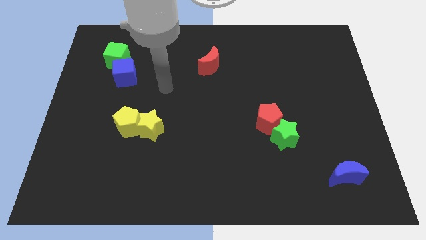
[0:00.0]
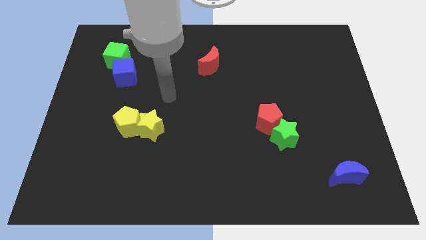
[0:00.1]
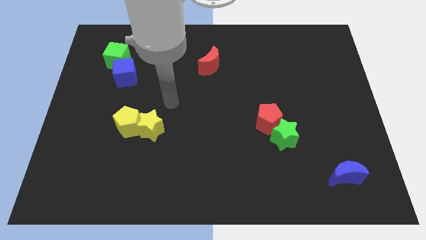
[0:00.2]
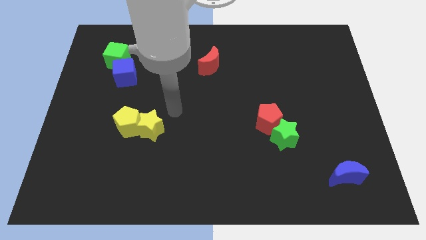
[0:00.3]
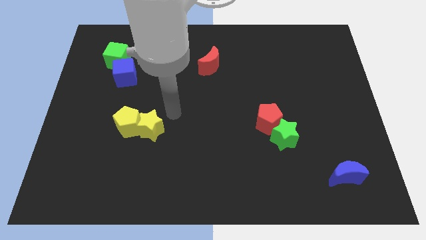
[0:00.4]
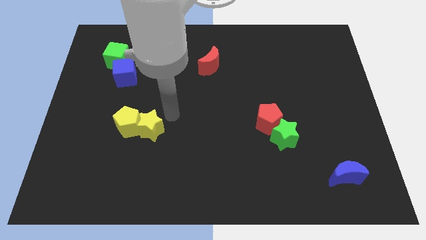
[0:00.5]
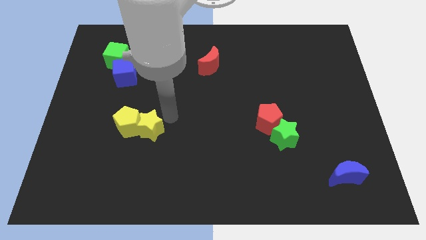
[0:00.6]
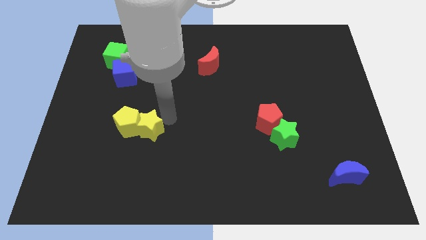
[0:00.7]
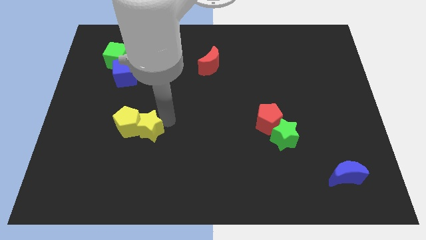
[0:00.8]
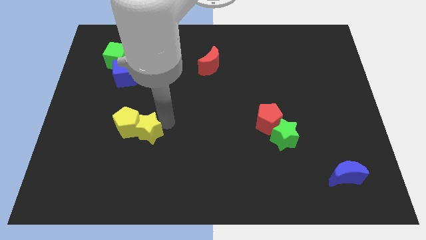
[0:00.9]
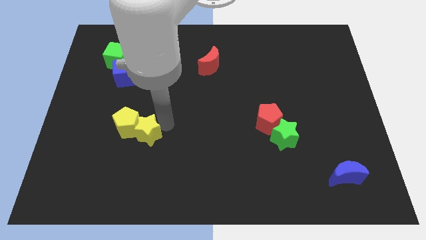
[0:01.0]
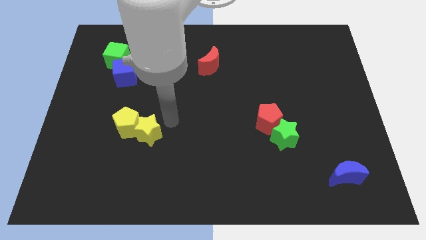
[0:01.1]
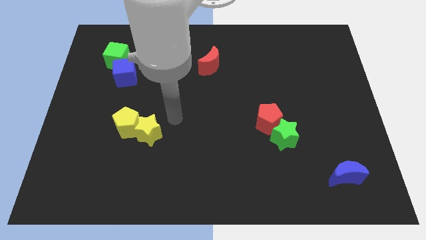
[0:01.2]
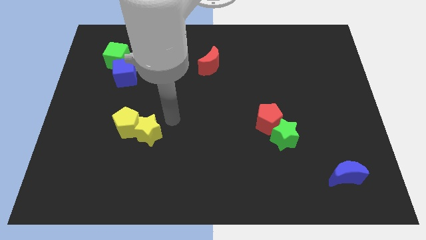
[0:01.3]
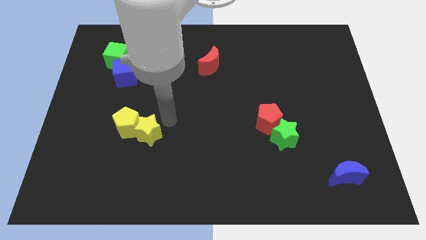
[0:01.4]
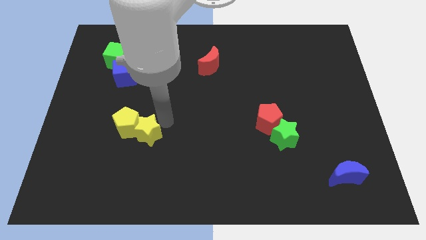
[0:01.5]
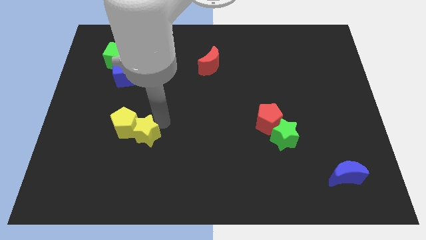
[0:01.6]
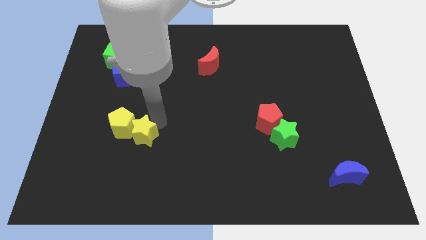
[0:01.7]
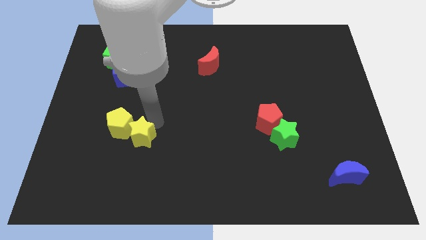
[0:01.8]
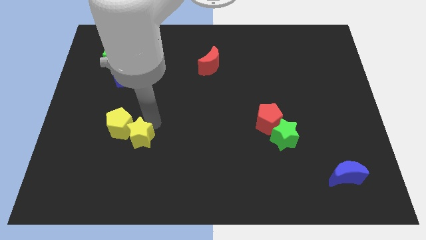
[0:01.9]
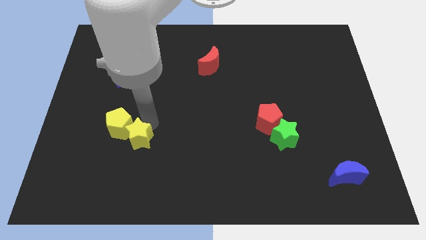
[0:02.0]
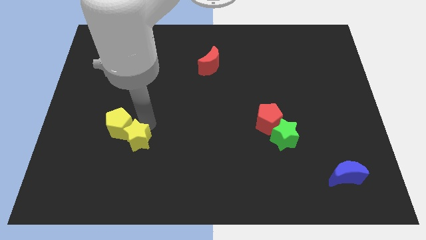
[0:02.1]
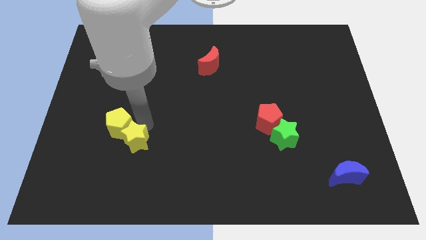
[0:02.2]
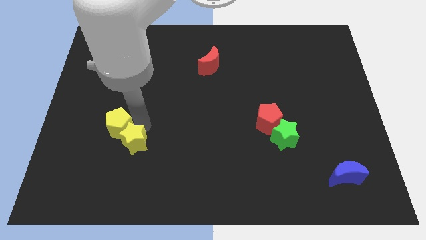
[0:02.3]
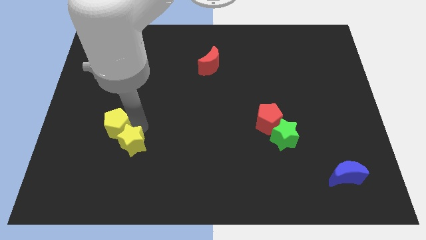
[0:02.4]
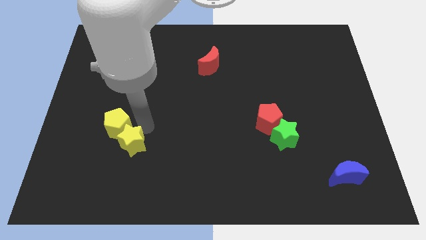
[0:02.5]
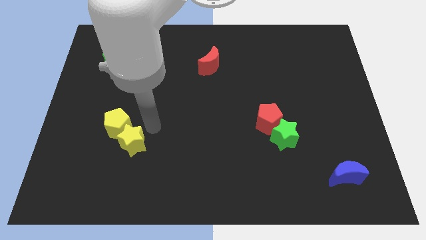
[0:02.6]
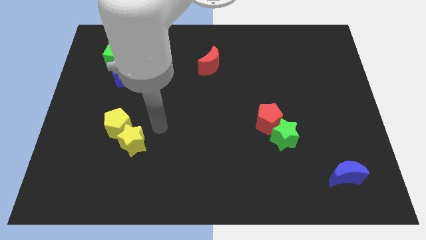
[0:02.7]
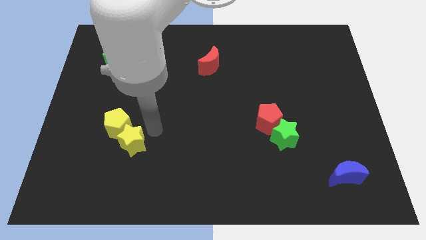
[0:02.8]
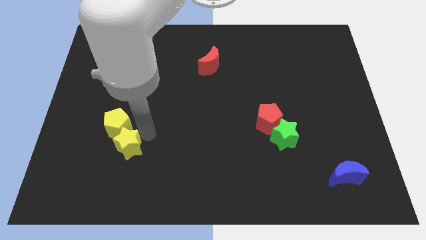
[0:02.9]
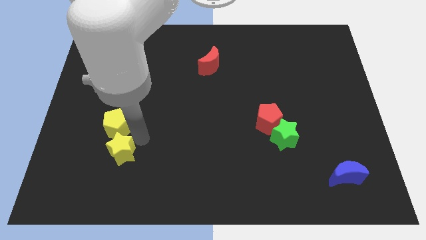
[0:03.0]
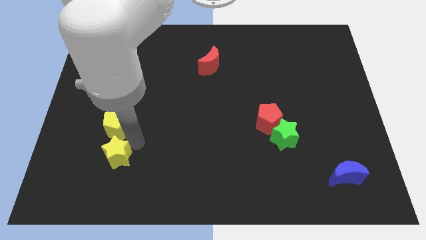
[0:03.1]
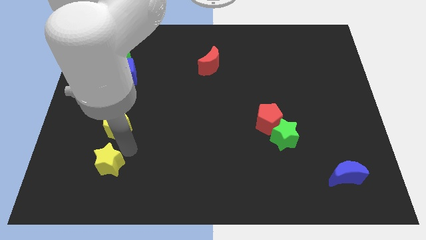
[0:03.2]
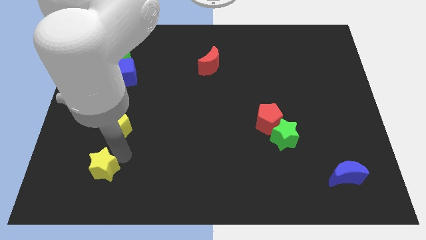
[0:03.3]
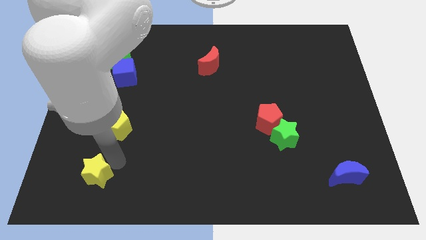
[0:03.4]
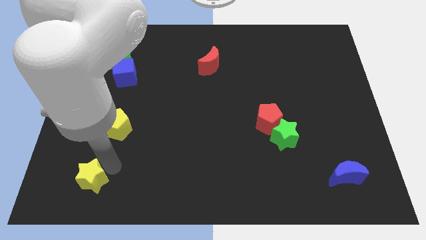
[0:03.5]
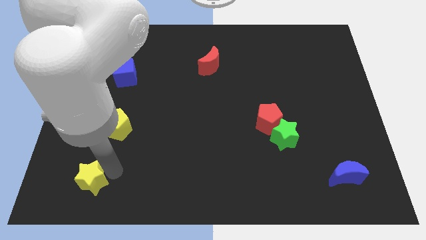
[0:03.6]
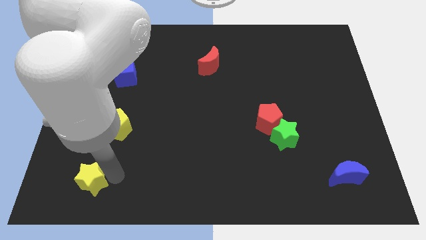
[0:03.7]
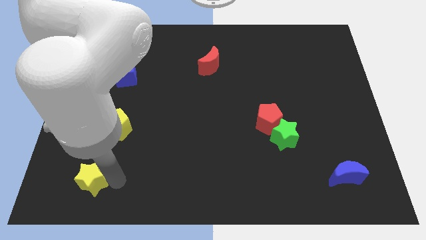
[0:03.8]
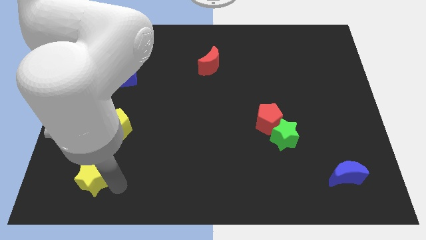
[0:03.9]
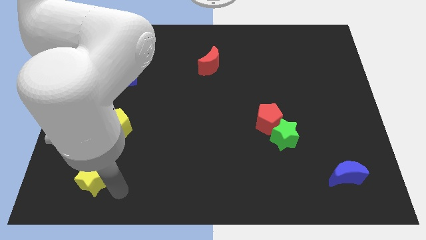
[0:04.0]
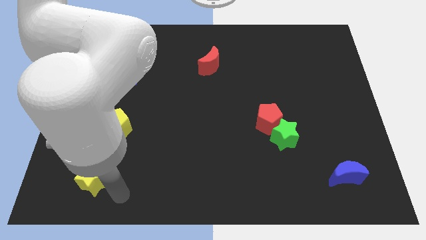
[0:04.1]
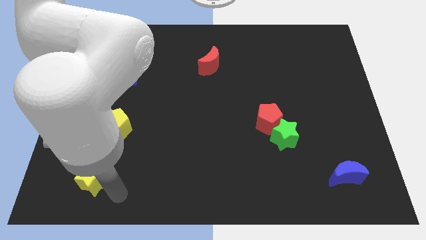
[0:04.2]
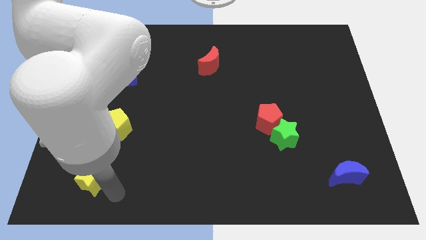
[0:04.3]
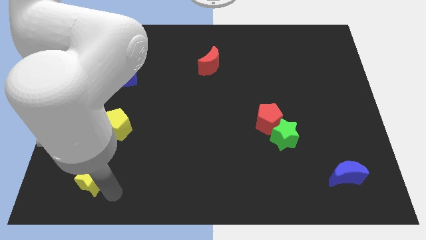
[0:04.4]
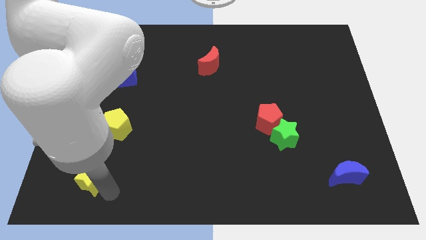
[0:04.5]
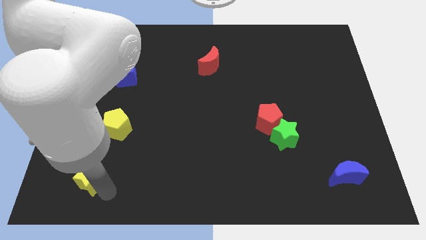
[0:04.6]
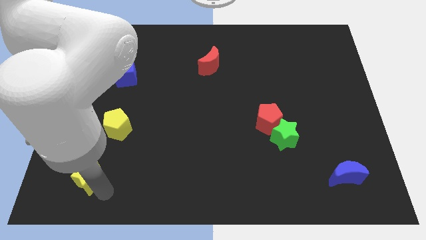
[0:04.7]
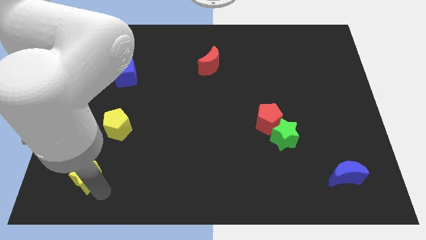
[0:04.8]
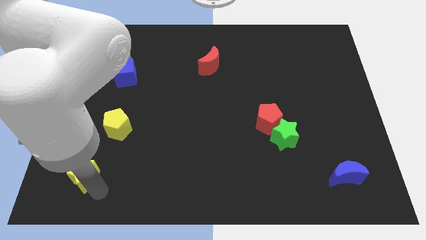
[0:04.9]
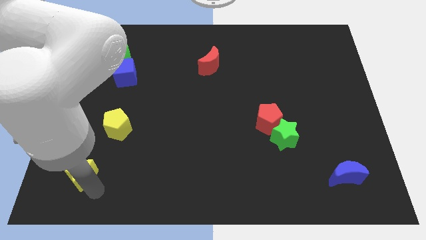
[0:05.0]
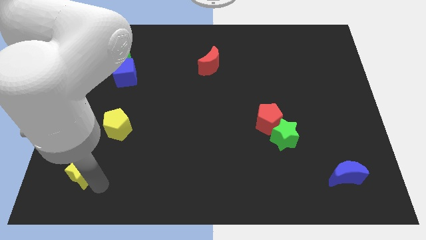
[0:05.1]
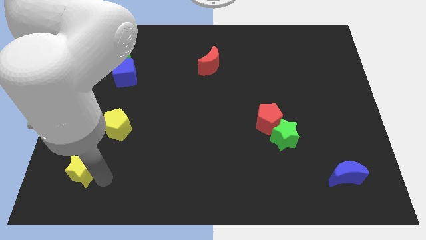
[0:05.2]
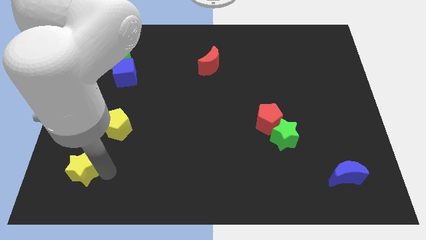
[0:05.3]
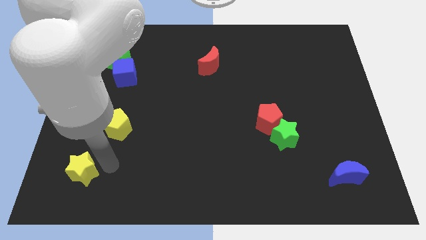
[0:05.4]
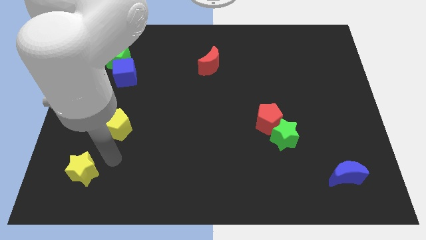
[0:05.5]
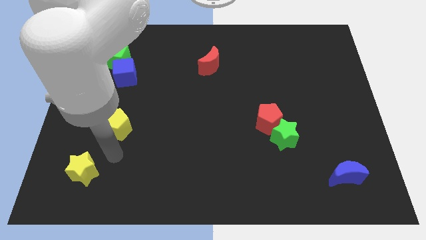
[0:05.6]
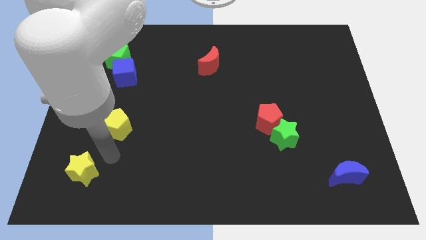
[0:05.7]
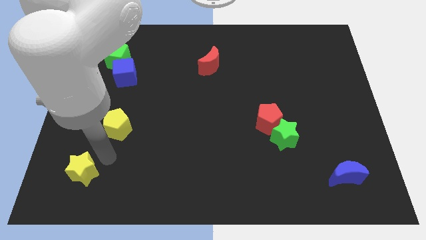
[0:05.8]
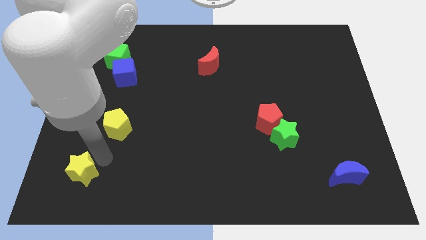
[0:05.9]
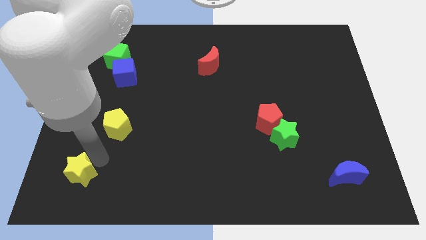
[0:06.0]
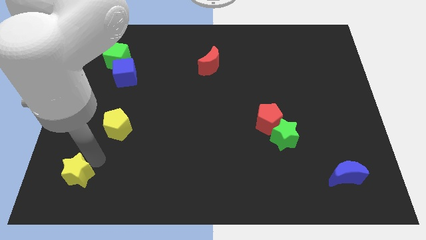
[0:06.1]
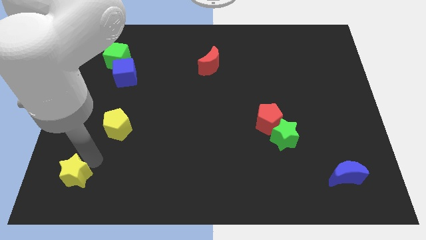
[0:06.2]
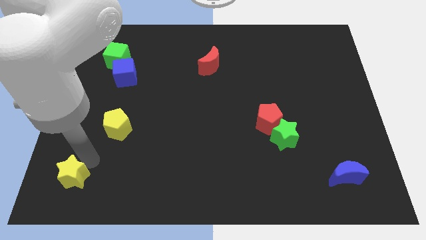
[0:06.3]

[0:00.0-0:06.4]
move the yellow star to the bottom left
